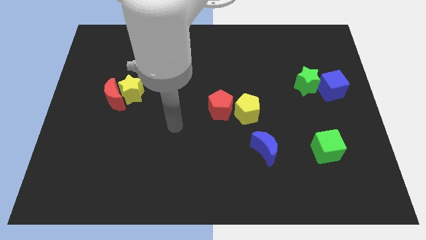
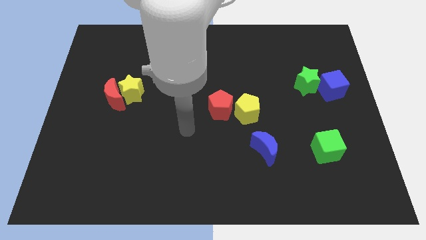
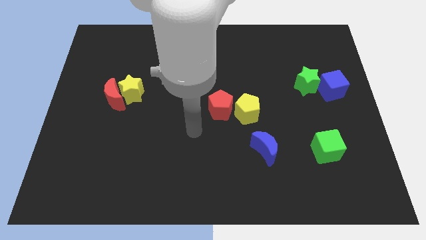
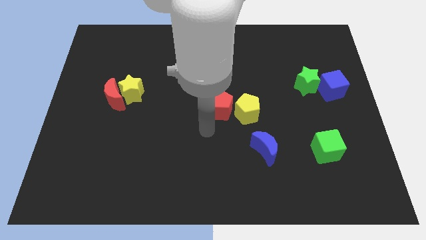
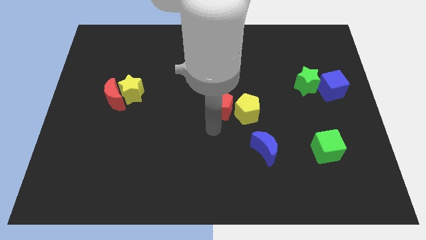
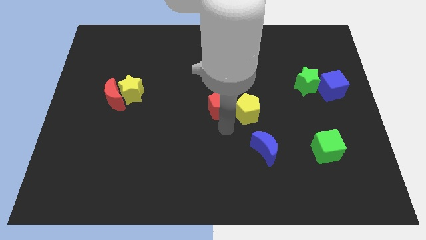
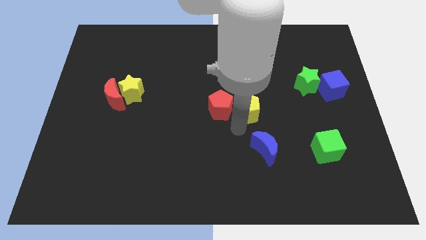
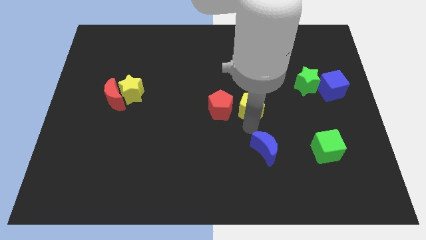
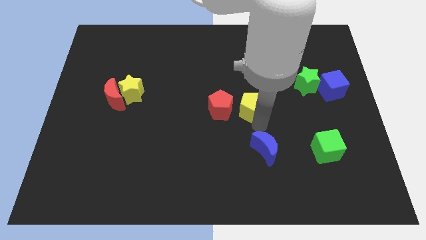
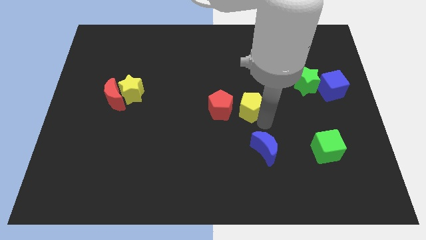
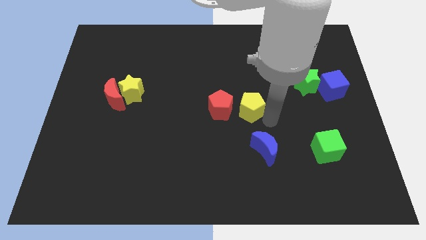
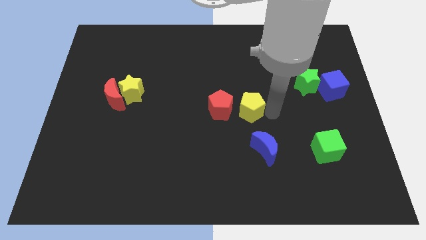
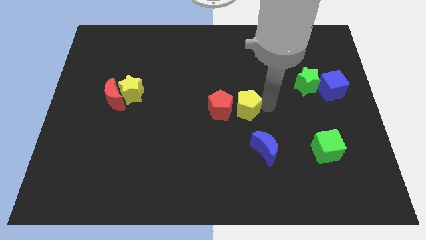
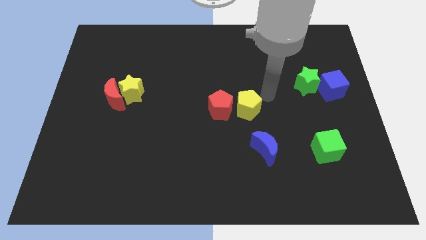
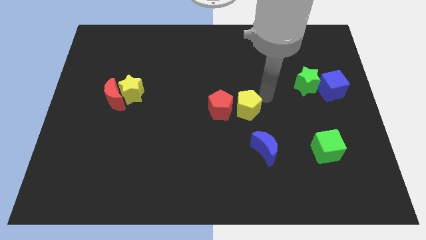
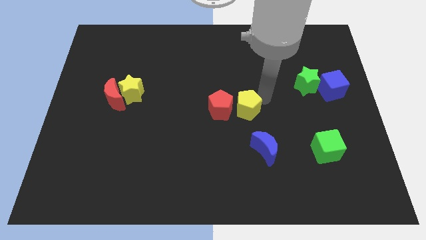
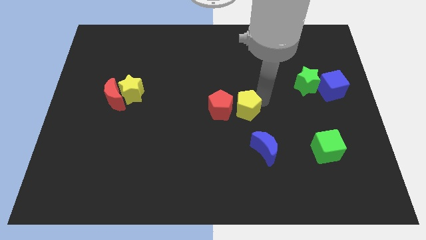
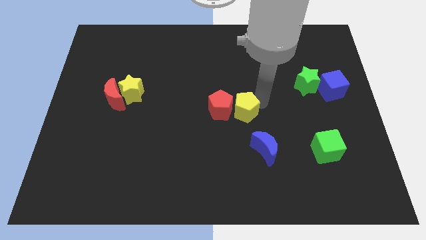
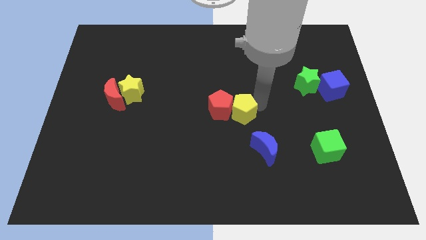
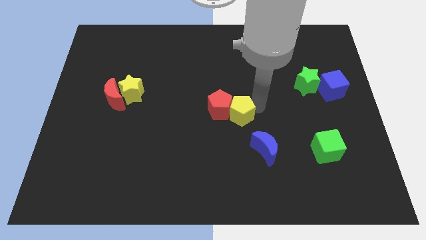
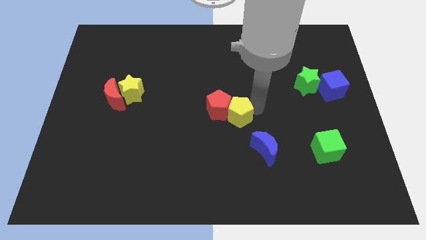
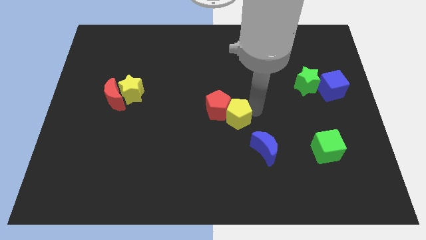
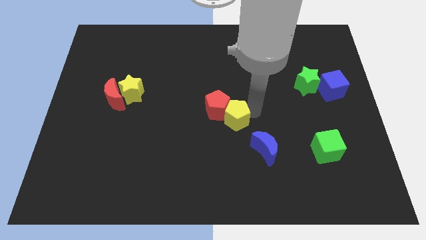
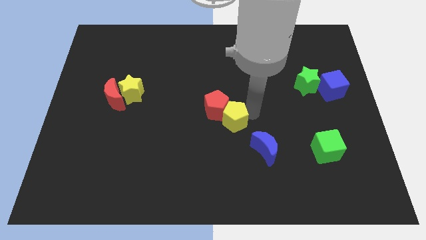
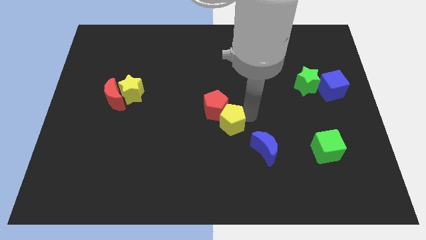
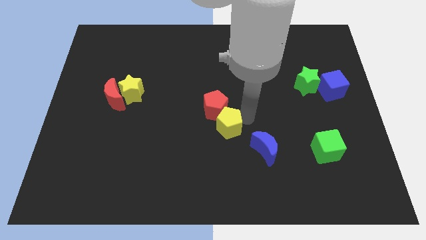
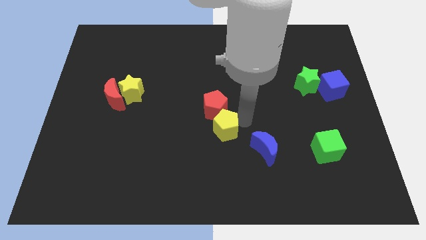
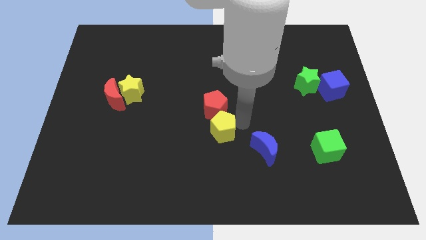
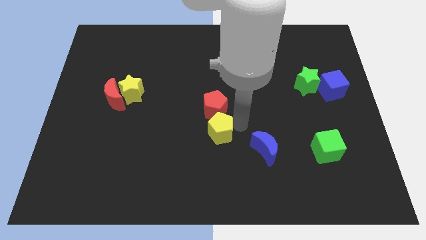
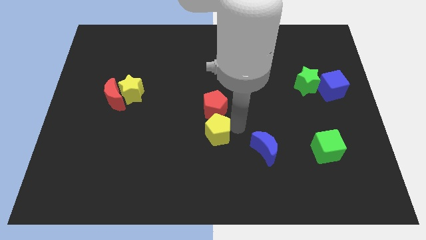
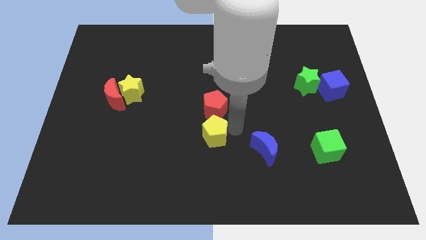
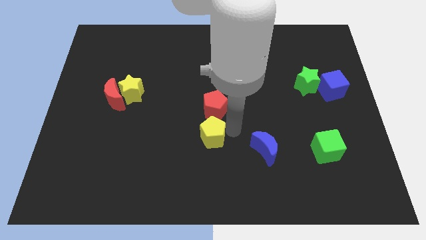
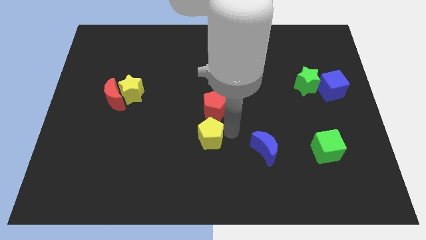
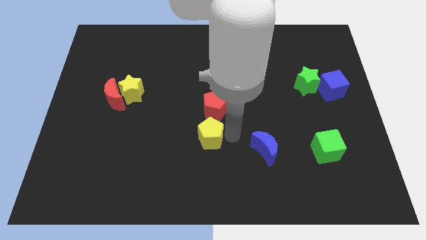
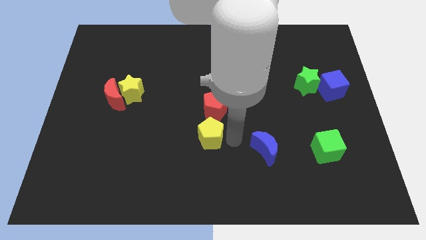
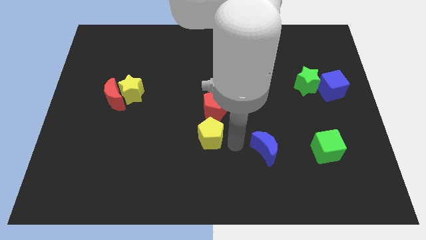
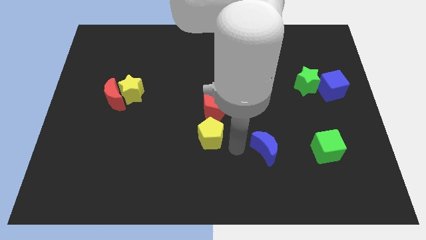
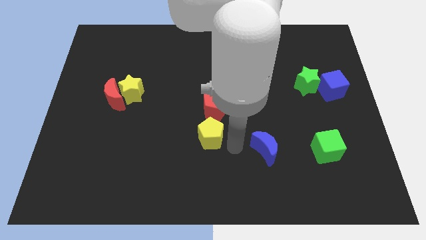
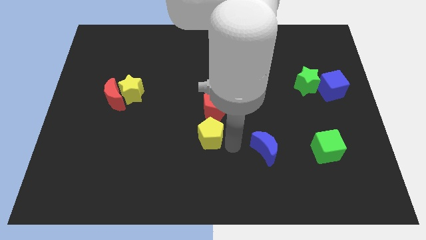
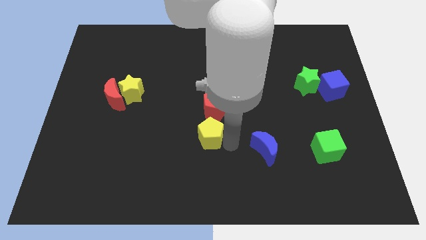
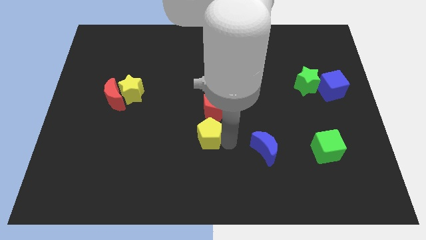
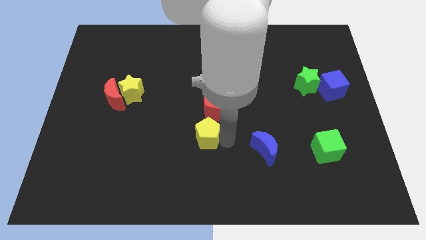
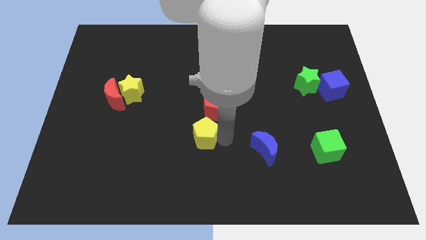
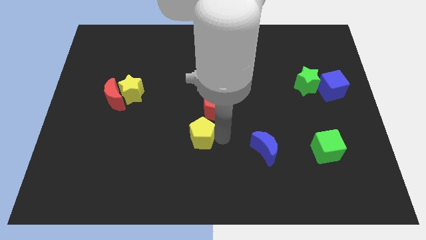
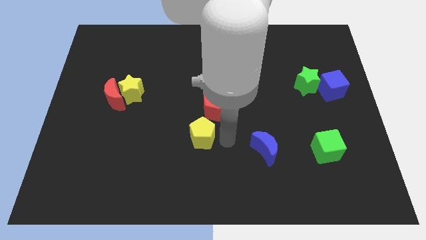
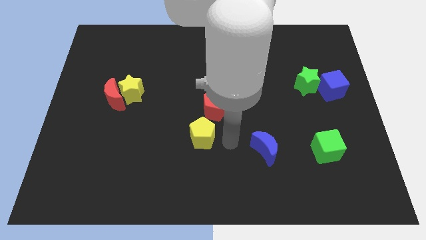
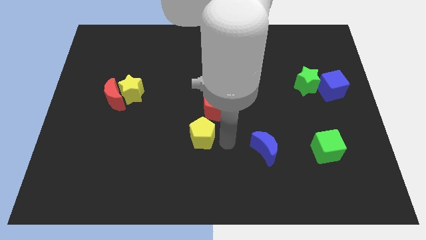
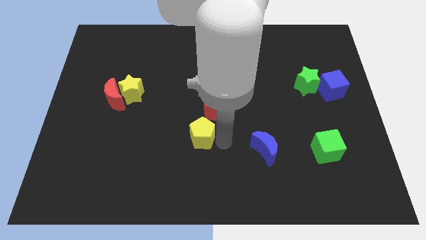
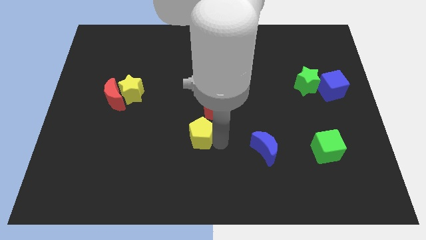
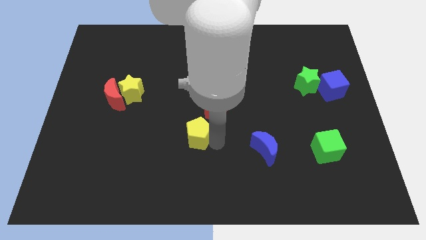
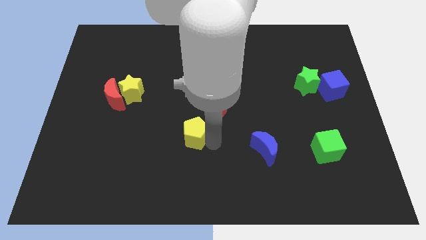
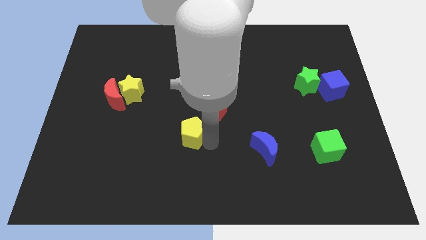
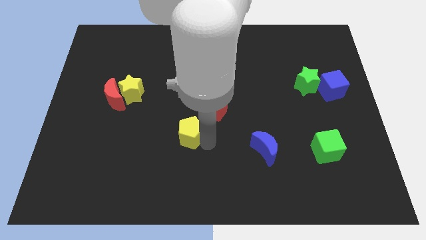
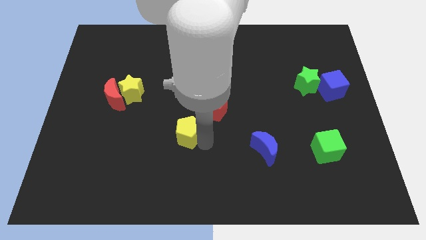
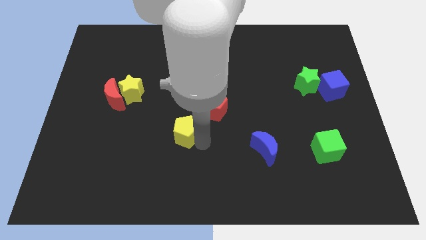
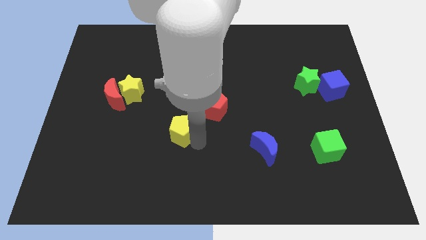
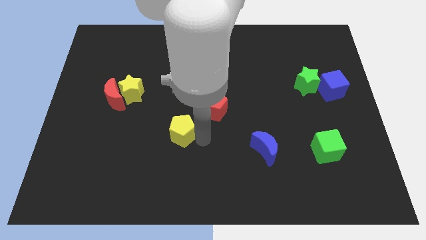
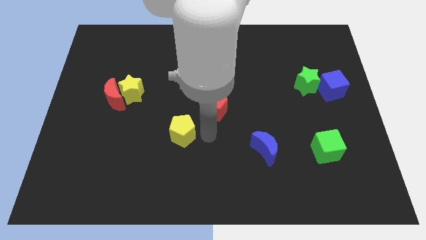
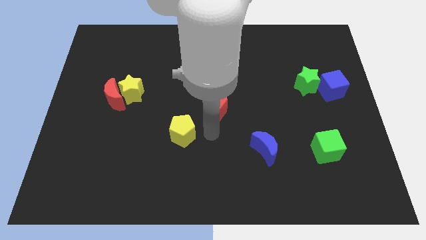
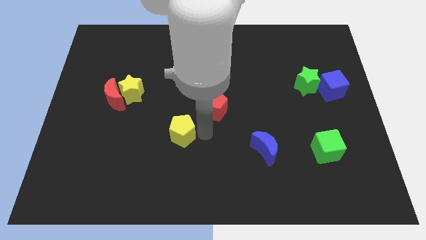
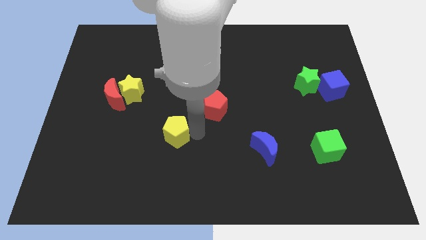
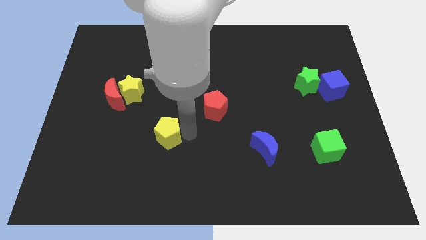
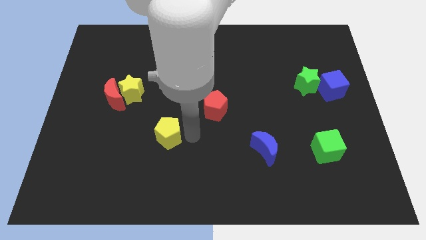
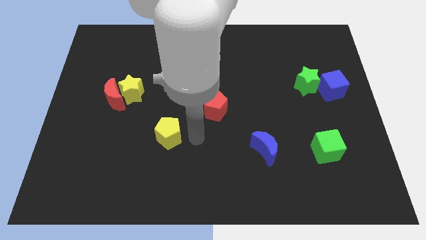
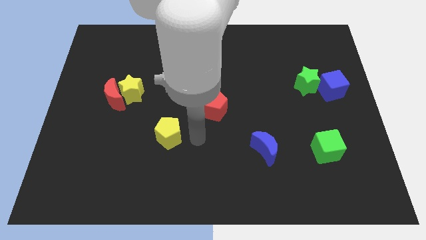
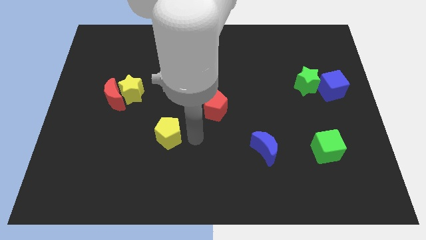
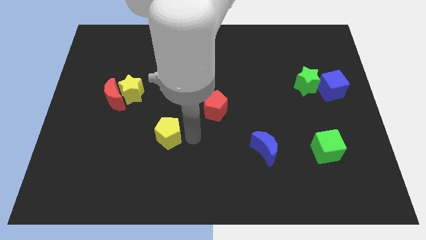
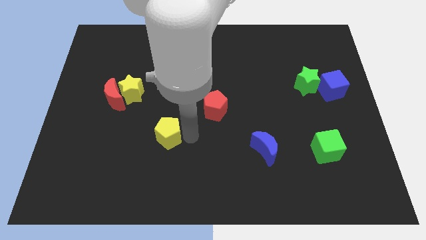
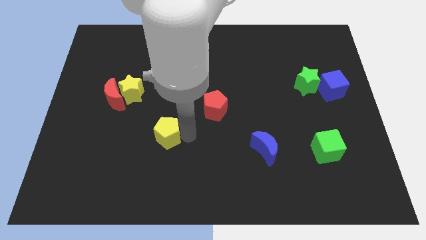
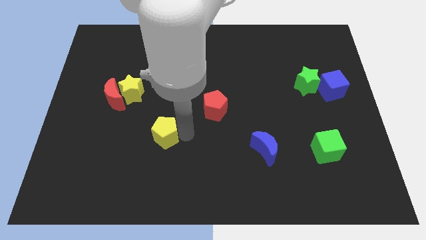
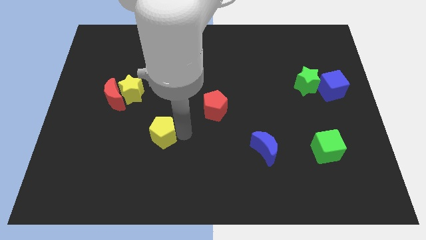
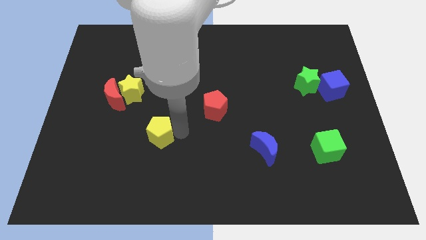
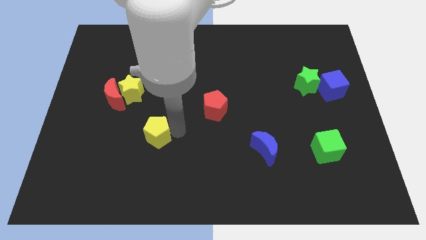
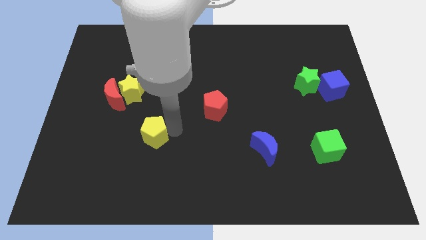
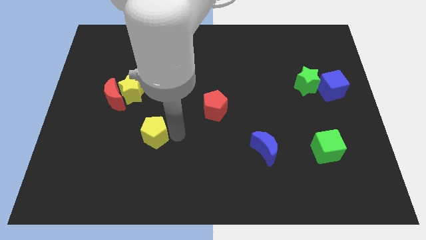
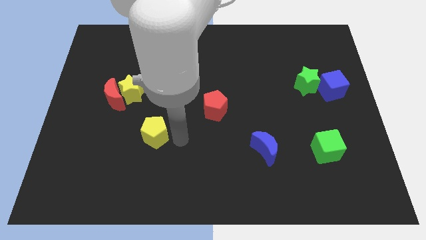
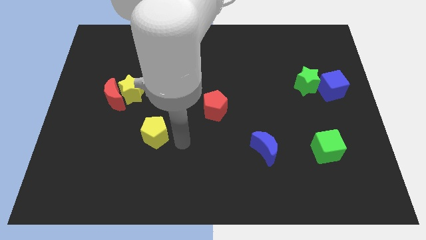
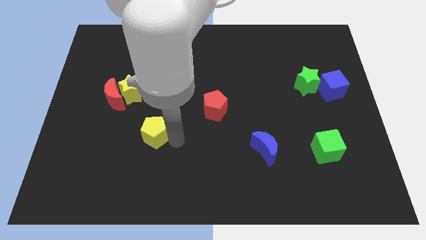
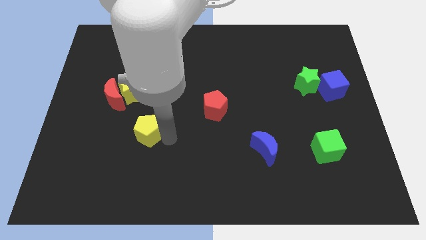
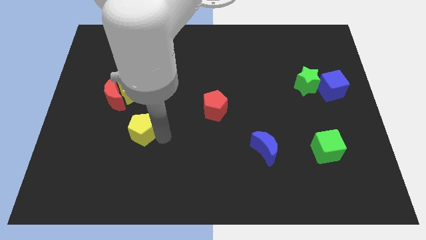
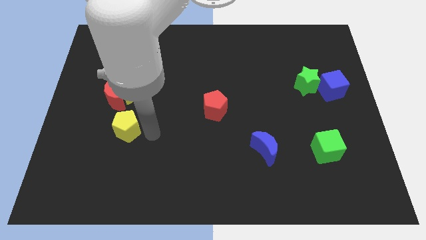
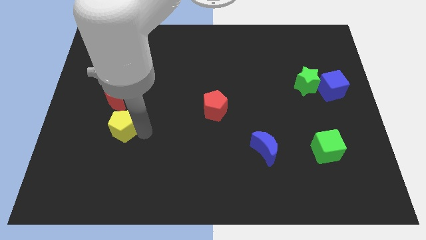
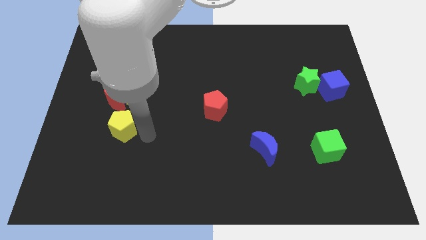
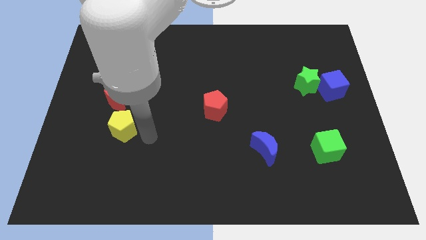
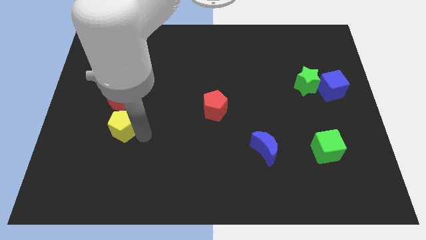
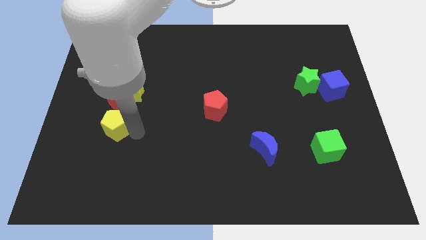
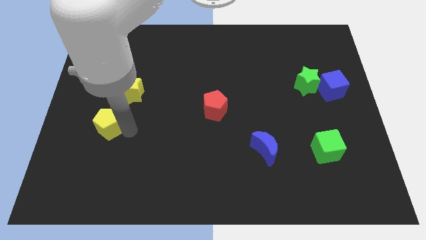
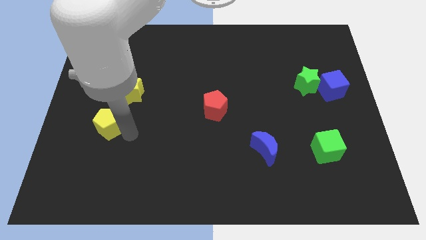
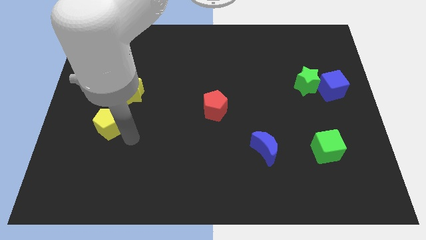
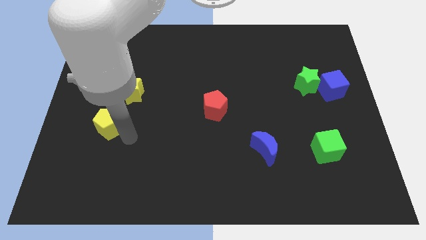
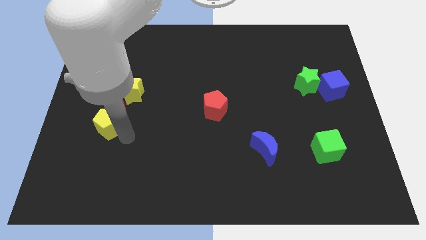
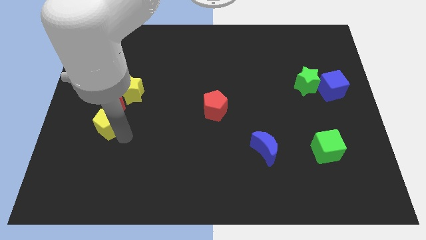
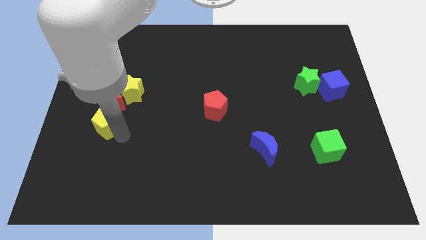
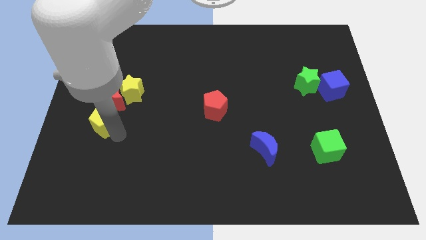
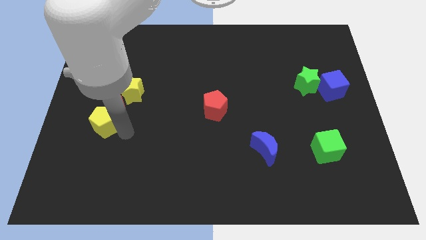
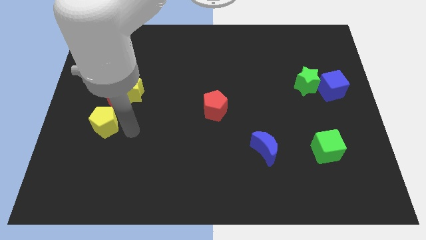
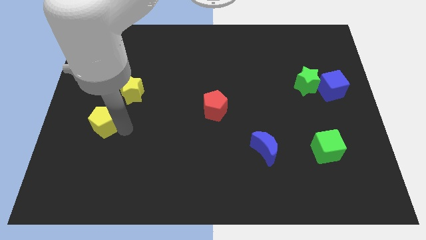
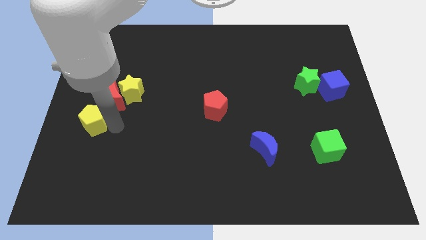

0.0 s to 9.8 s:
push the yellow pentagon to the center left
